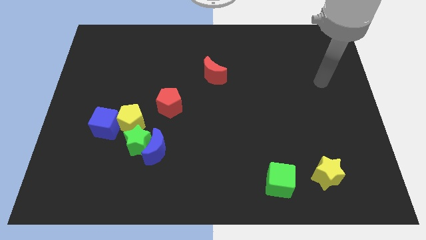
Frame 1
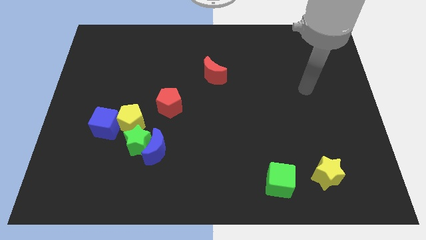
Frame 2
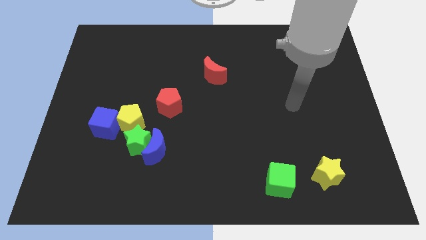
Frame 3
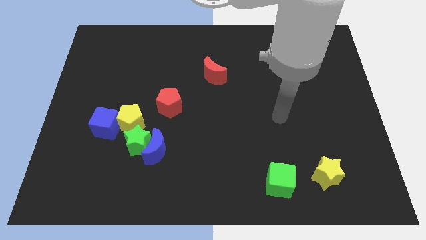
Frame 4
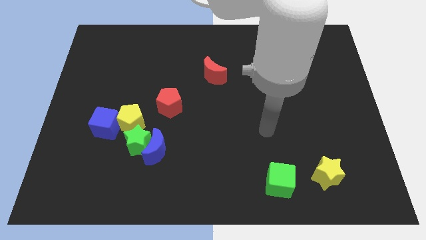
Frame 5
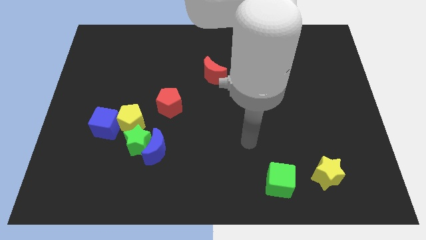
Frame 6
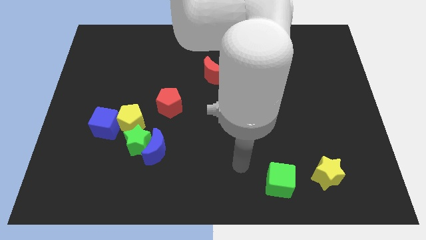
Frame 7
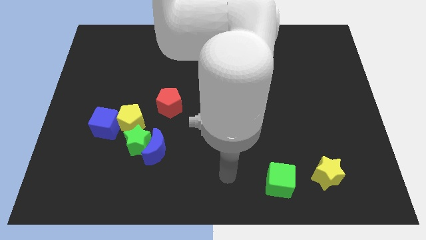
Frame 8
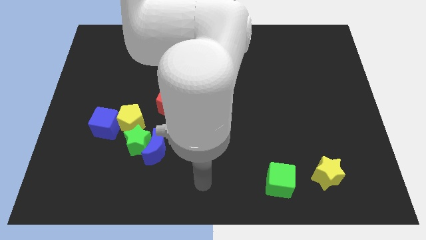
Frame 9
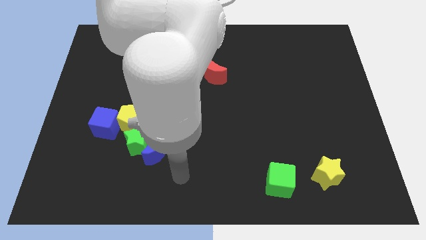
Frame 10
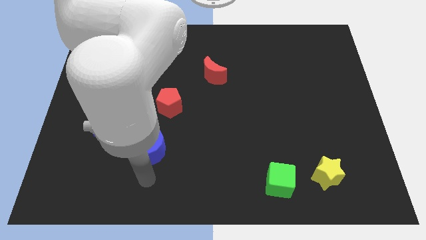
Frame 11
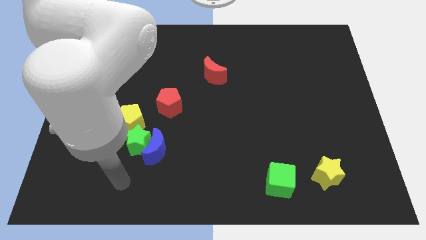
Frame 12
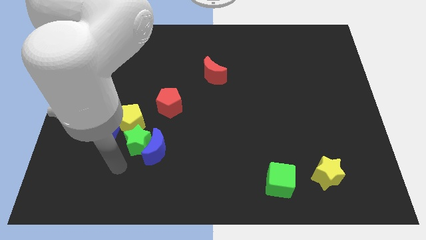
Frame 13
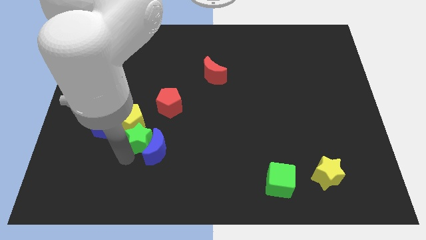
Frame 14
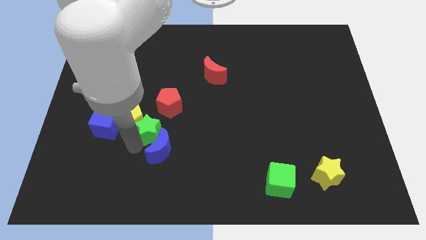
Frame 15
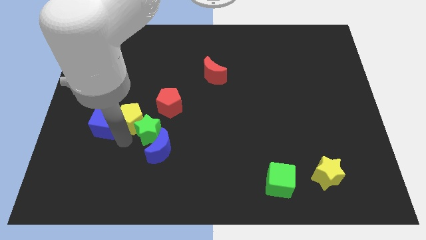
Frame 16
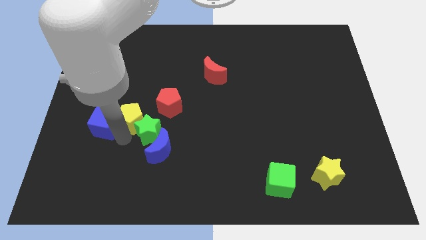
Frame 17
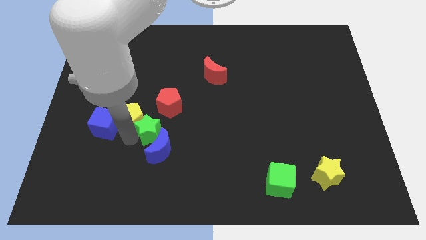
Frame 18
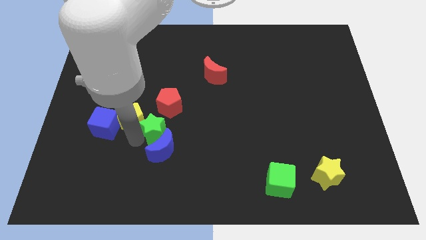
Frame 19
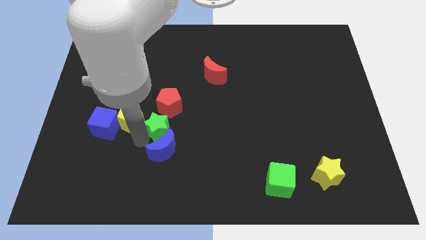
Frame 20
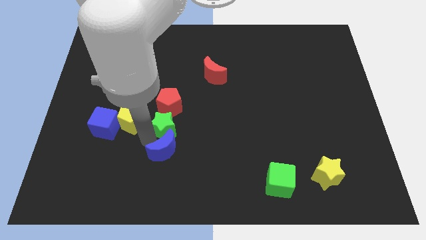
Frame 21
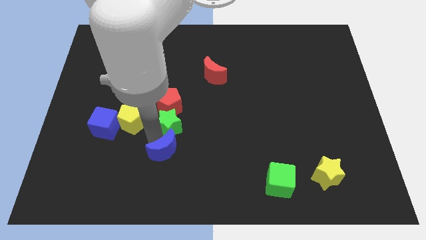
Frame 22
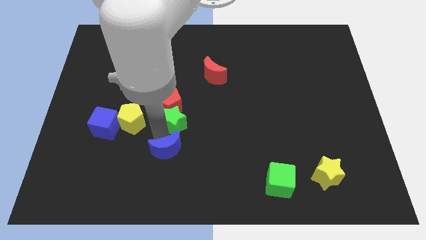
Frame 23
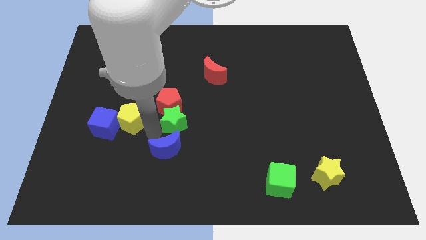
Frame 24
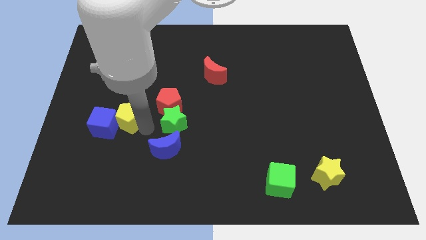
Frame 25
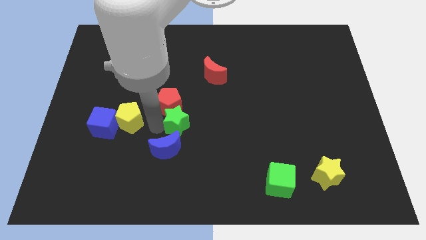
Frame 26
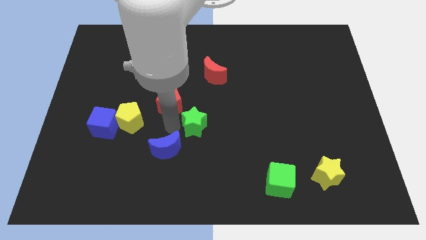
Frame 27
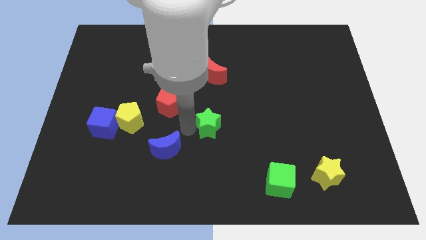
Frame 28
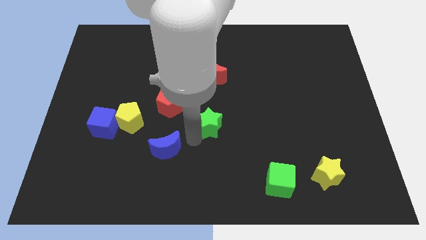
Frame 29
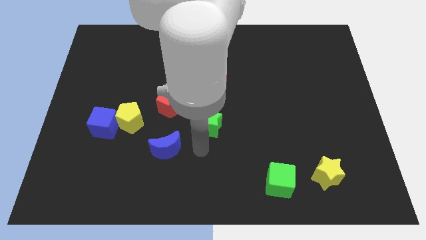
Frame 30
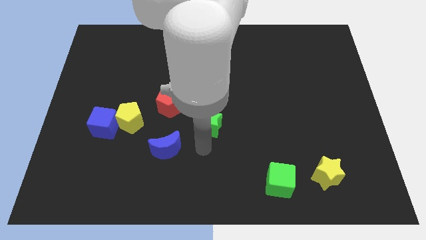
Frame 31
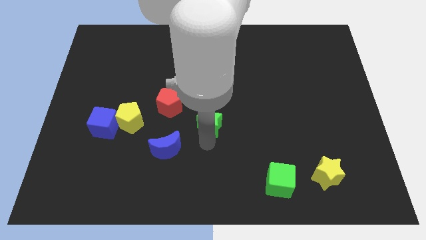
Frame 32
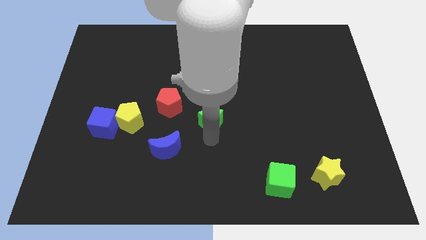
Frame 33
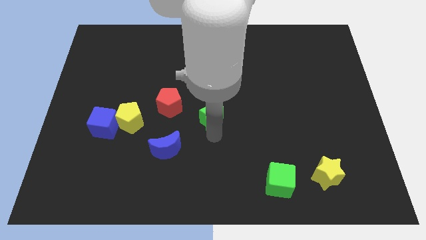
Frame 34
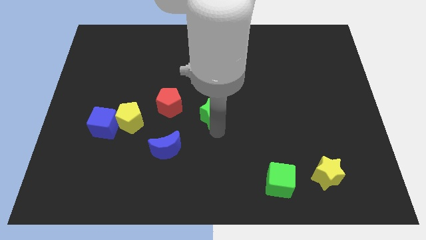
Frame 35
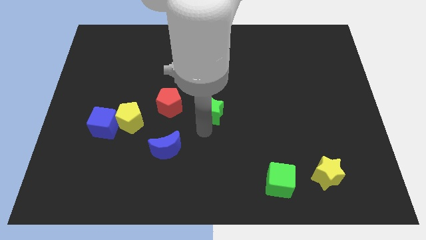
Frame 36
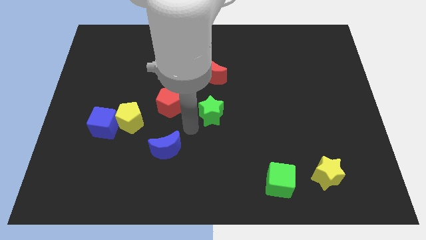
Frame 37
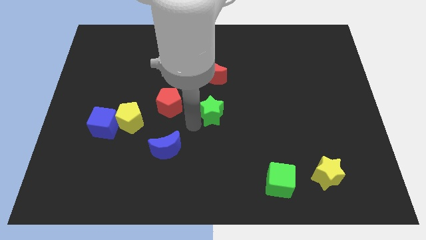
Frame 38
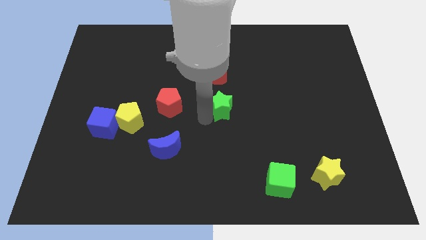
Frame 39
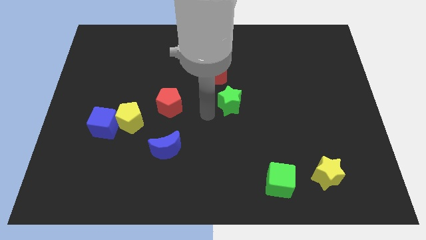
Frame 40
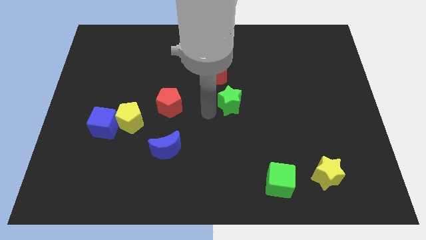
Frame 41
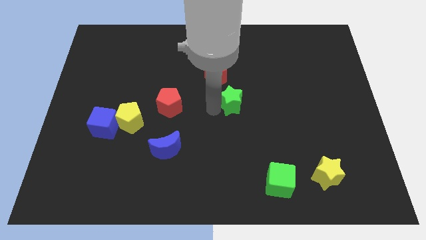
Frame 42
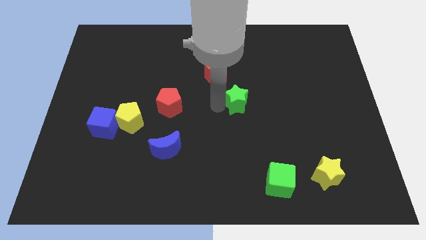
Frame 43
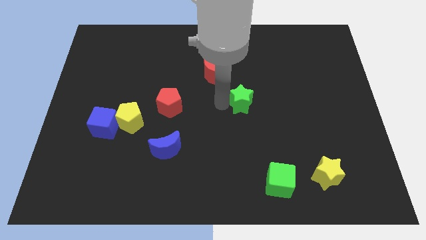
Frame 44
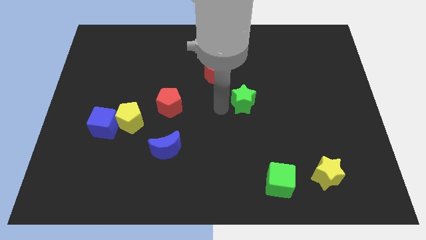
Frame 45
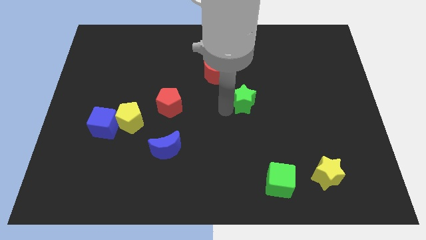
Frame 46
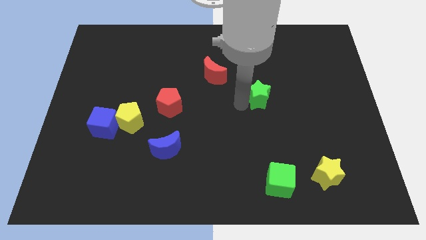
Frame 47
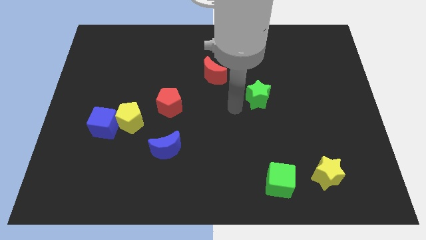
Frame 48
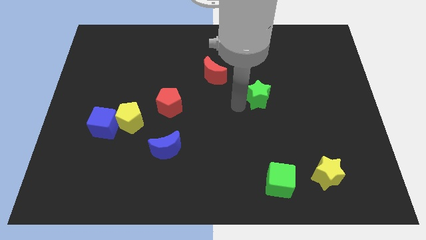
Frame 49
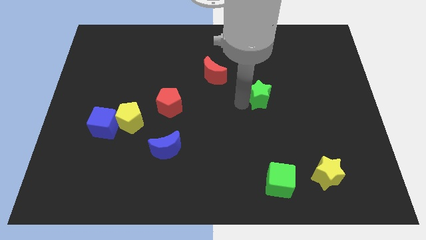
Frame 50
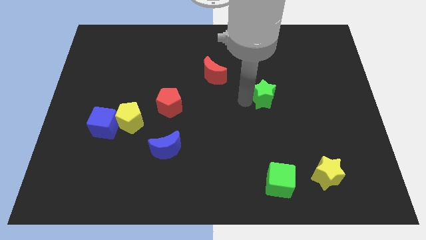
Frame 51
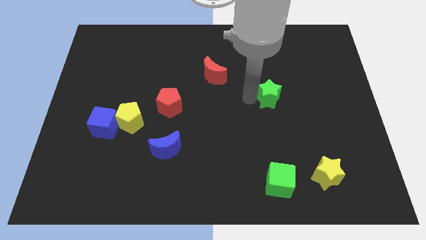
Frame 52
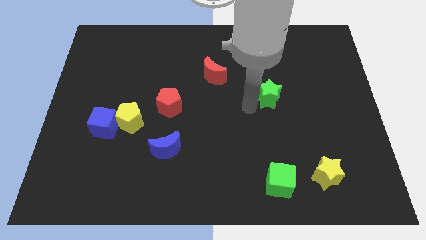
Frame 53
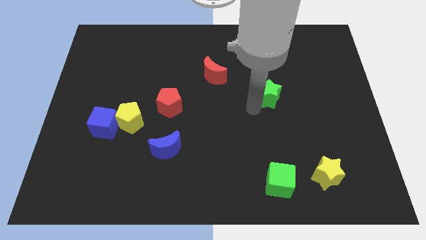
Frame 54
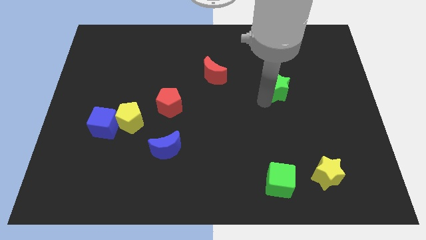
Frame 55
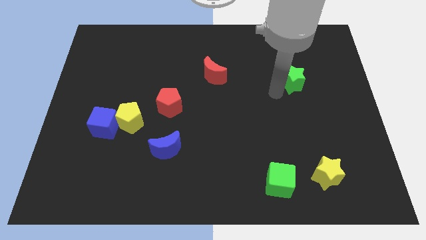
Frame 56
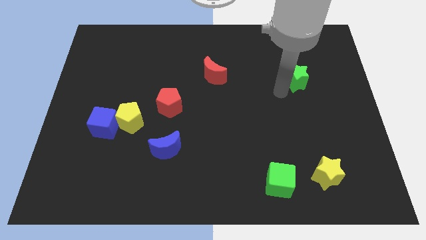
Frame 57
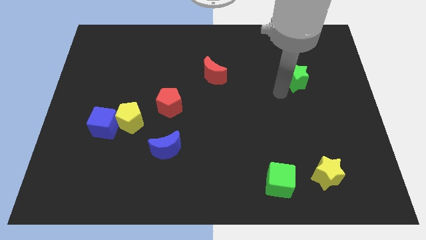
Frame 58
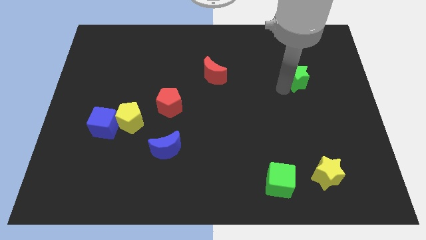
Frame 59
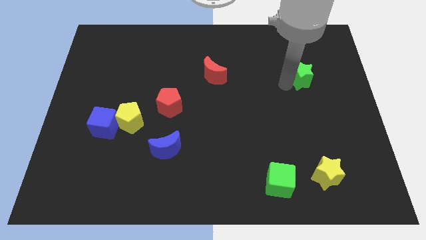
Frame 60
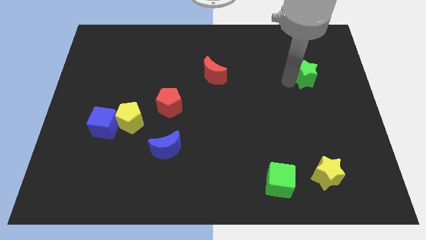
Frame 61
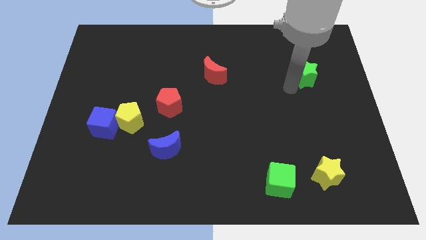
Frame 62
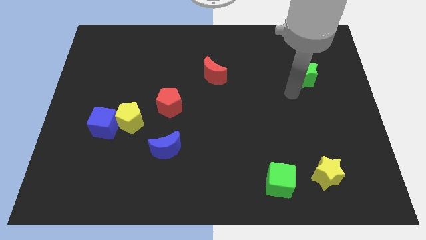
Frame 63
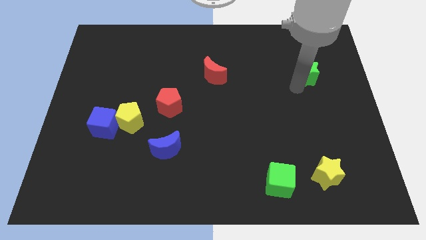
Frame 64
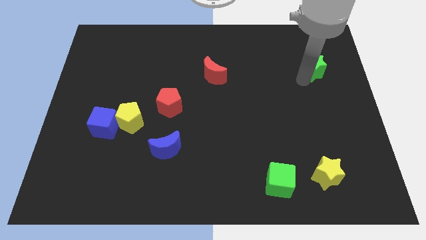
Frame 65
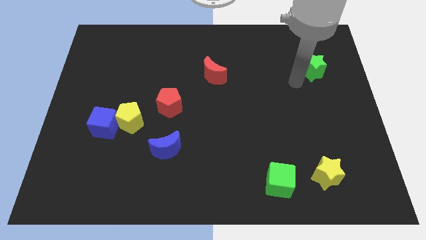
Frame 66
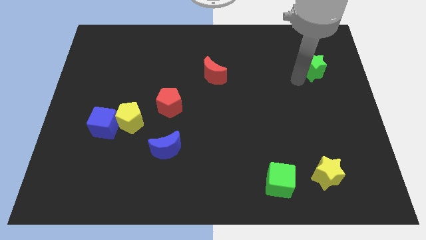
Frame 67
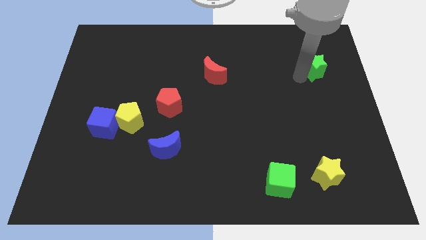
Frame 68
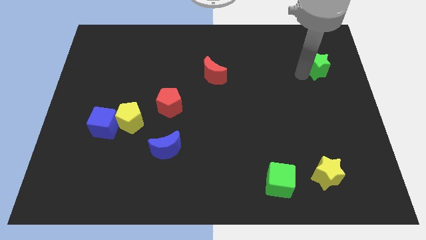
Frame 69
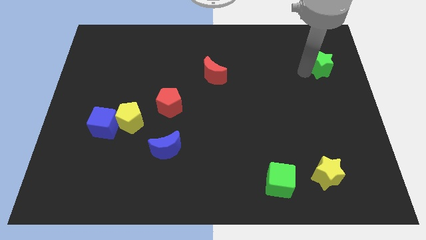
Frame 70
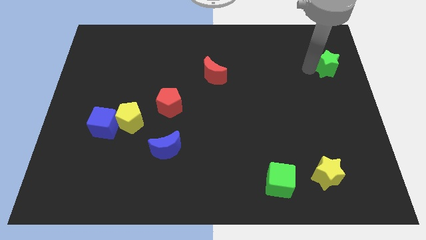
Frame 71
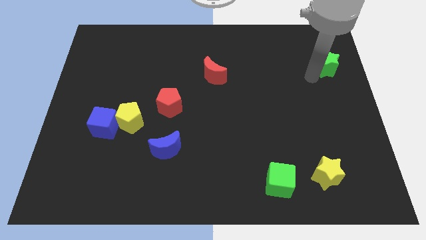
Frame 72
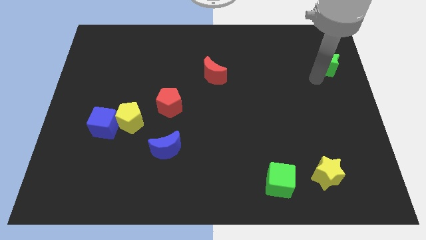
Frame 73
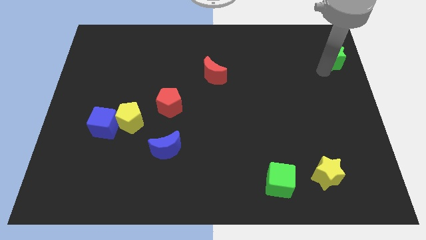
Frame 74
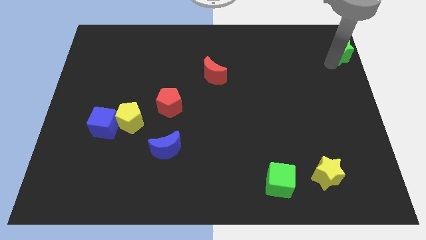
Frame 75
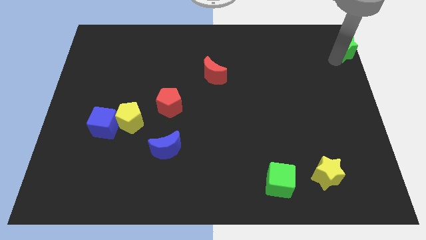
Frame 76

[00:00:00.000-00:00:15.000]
push the green star to the upper right corner
